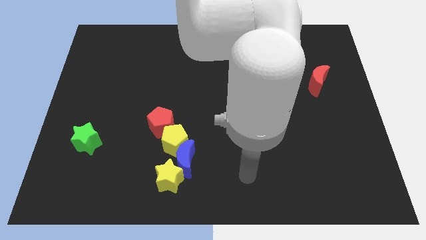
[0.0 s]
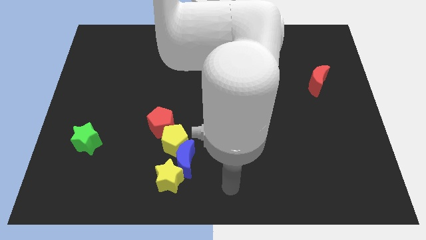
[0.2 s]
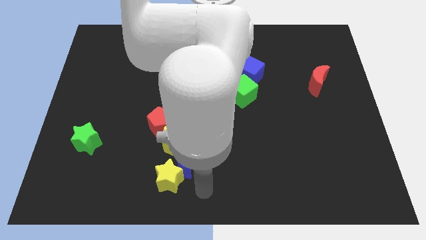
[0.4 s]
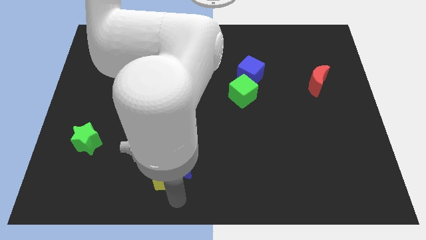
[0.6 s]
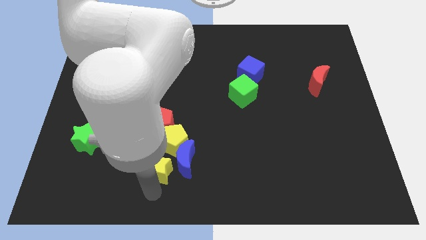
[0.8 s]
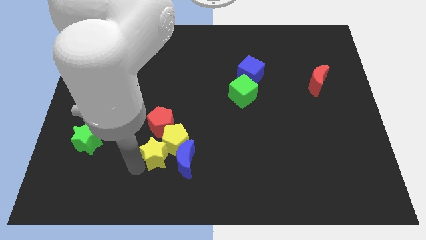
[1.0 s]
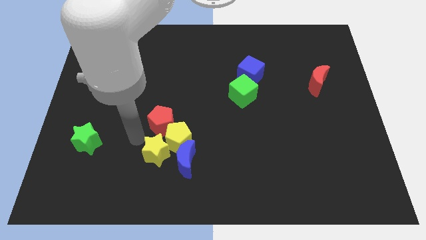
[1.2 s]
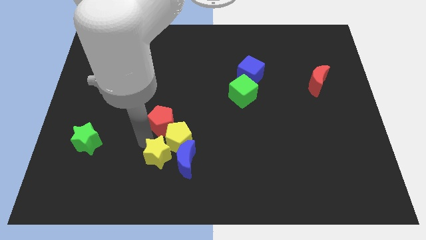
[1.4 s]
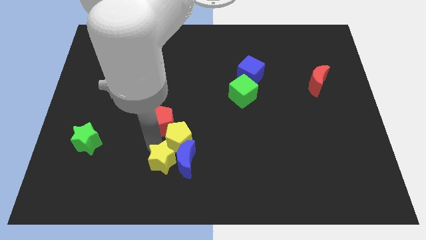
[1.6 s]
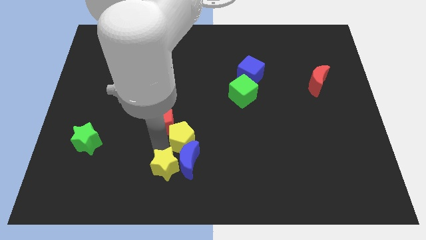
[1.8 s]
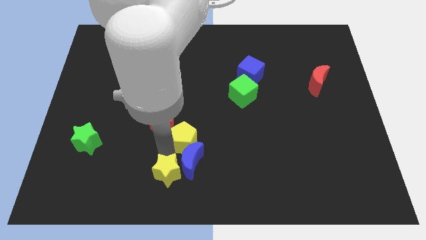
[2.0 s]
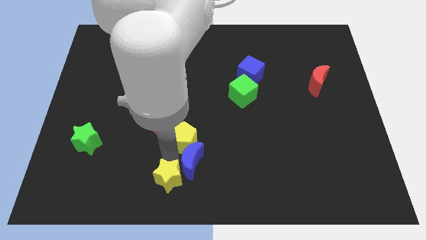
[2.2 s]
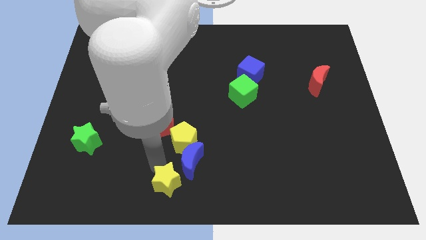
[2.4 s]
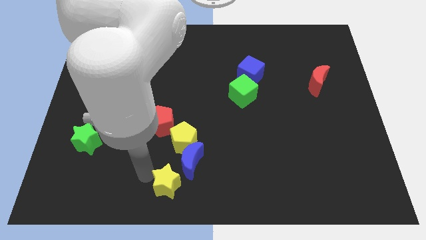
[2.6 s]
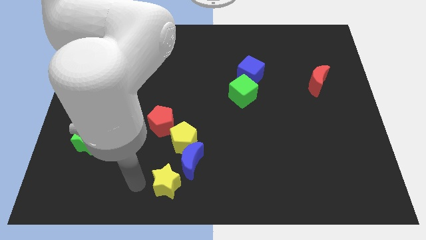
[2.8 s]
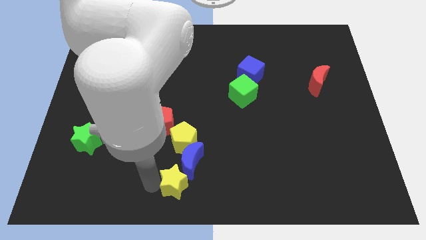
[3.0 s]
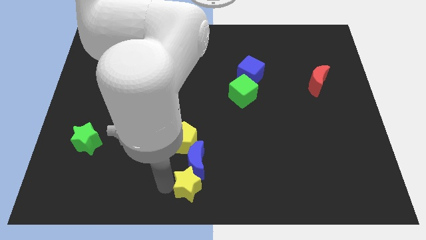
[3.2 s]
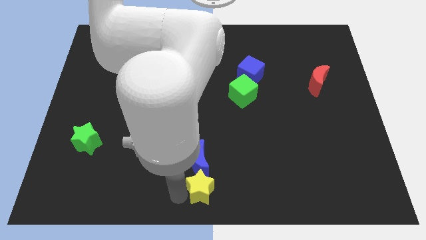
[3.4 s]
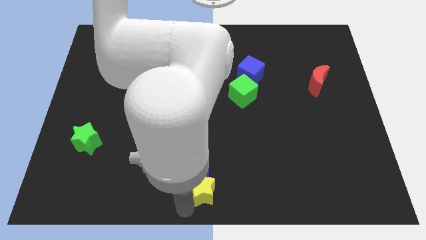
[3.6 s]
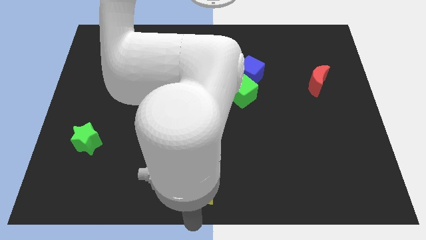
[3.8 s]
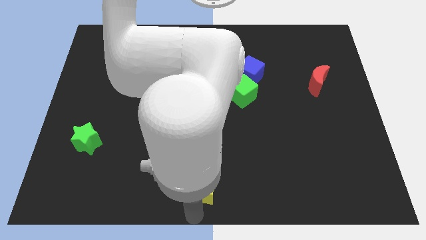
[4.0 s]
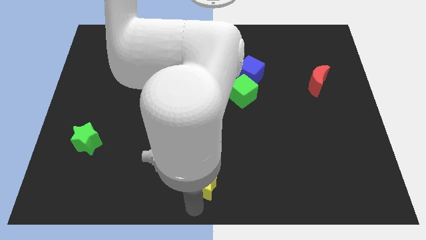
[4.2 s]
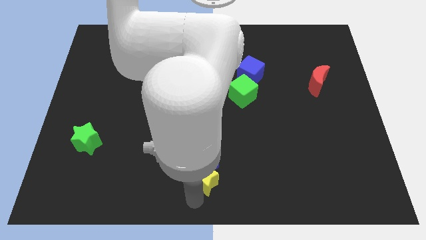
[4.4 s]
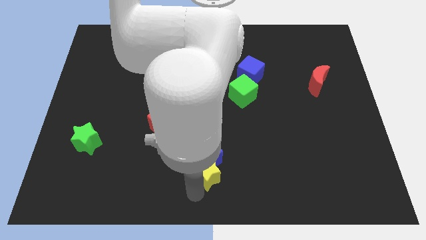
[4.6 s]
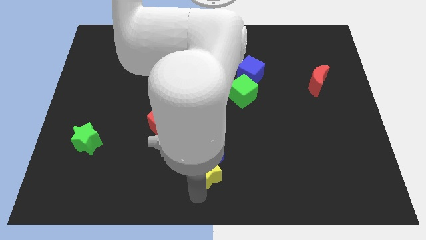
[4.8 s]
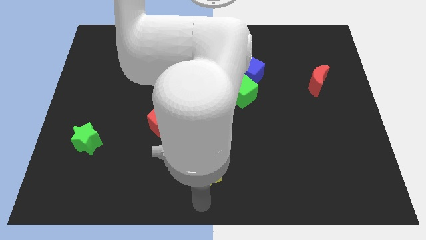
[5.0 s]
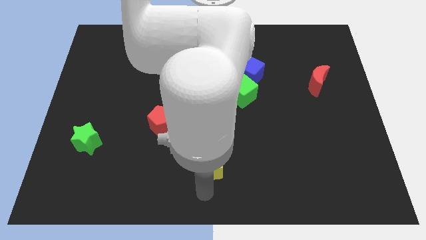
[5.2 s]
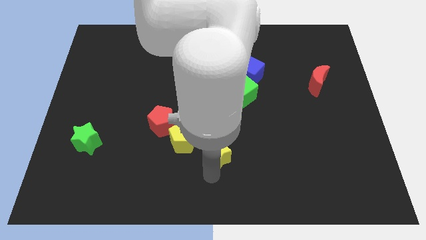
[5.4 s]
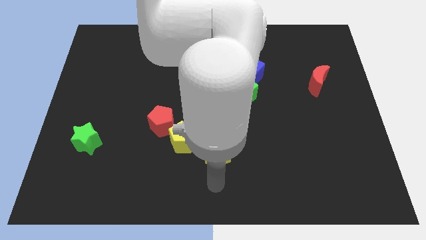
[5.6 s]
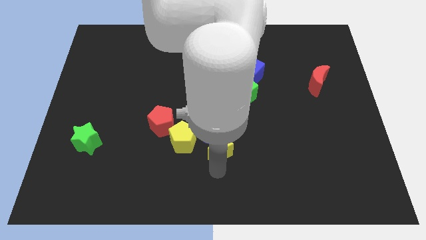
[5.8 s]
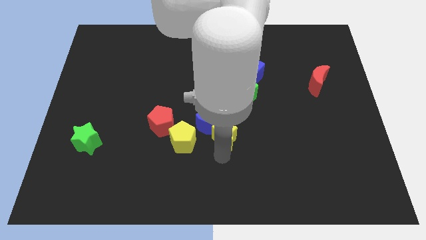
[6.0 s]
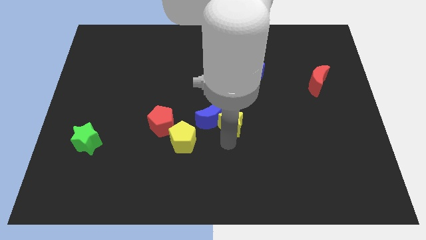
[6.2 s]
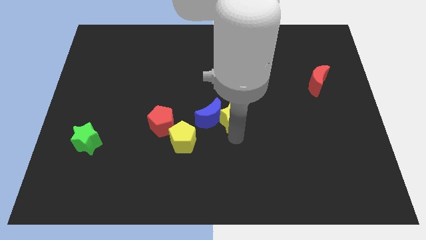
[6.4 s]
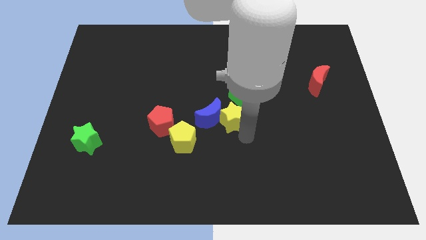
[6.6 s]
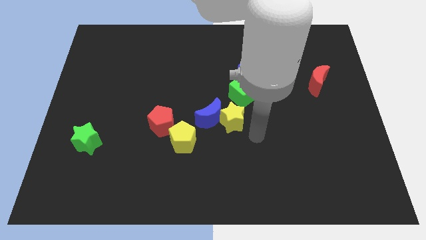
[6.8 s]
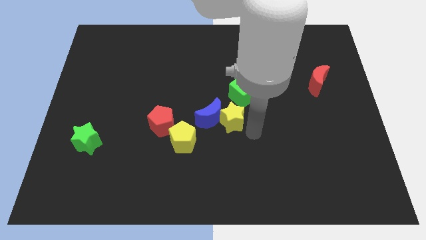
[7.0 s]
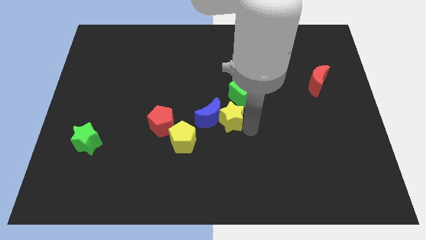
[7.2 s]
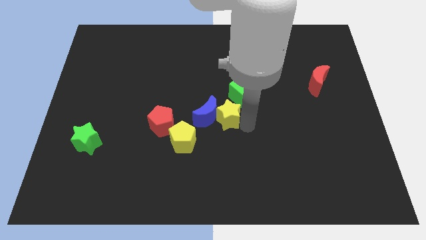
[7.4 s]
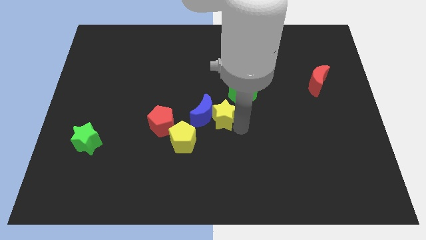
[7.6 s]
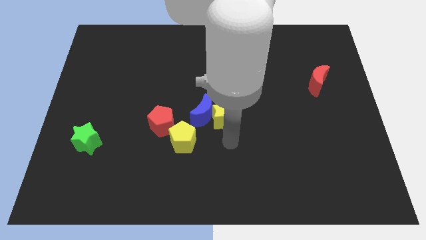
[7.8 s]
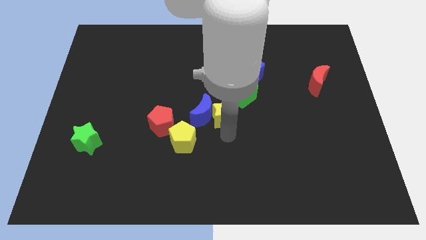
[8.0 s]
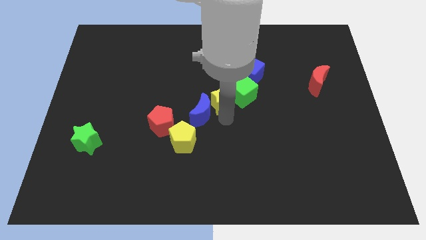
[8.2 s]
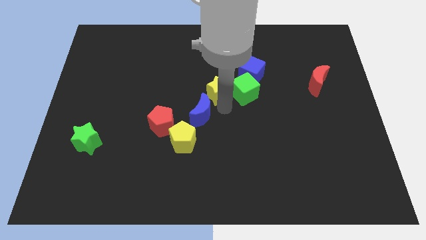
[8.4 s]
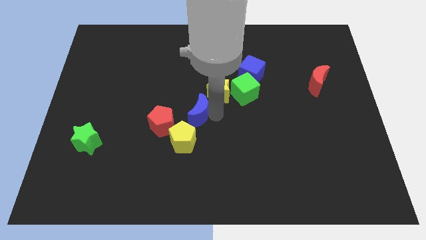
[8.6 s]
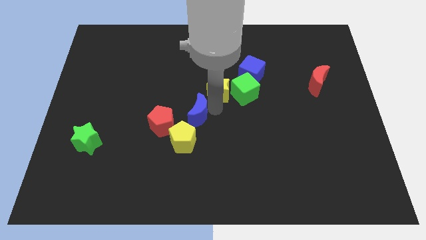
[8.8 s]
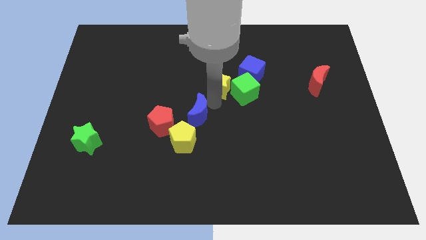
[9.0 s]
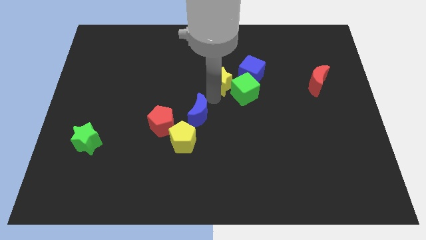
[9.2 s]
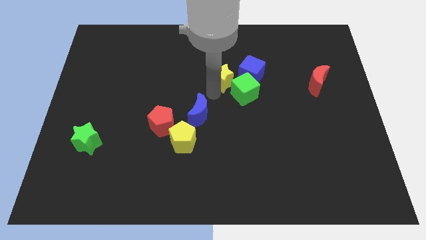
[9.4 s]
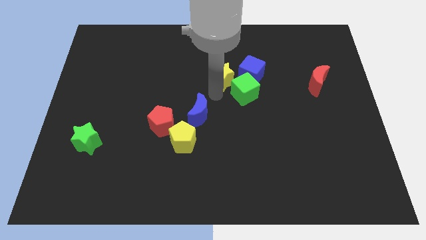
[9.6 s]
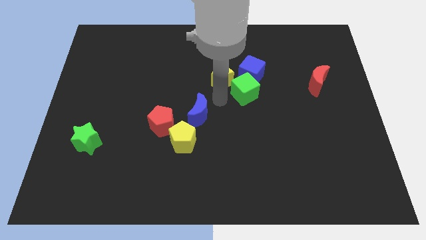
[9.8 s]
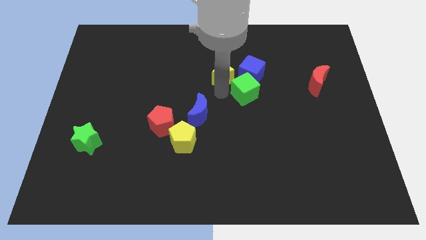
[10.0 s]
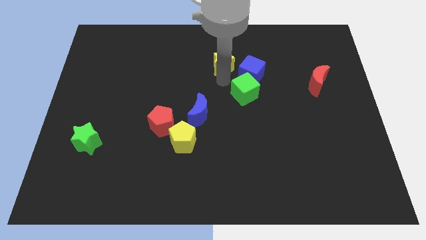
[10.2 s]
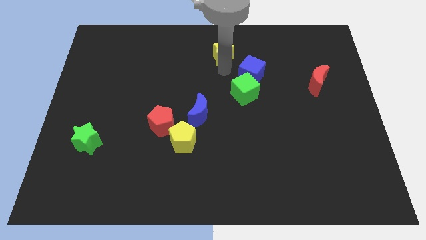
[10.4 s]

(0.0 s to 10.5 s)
move the yellow star to the top

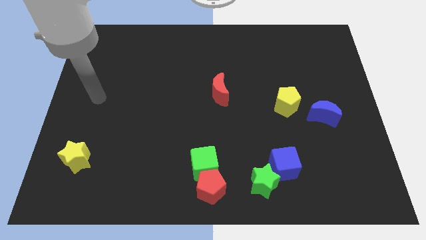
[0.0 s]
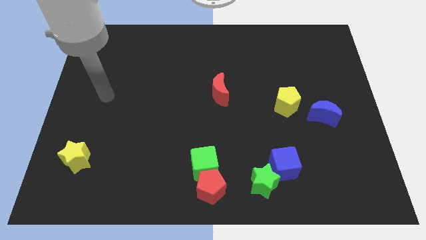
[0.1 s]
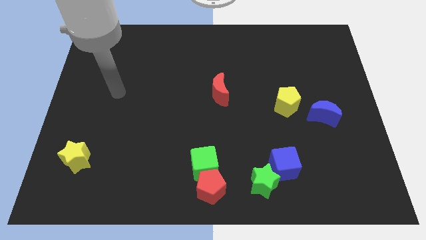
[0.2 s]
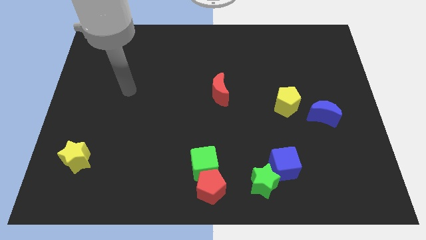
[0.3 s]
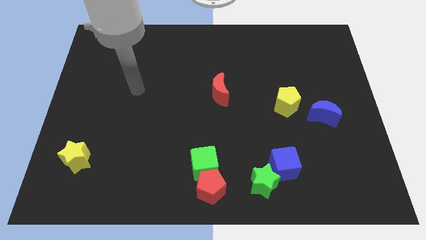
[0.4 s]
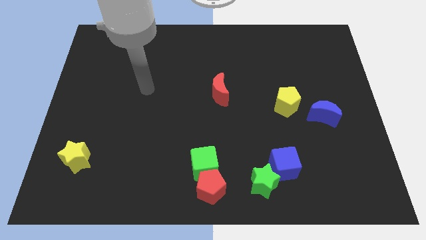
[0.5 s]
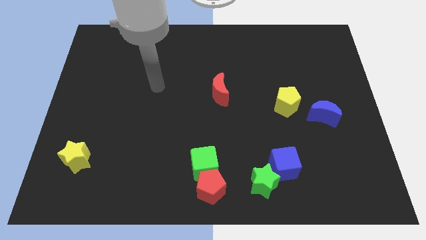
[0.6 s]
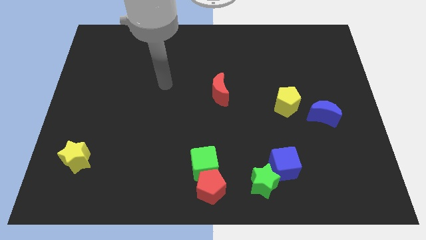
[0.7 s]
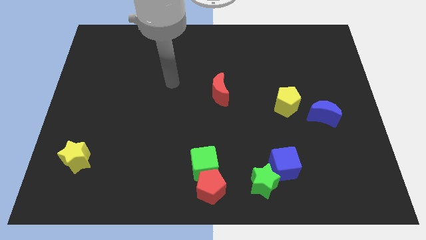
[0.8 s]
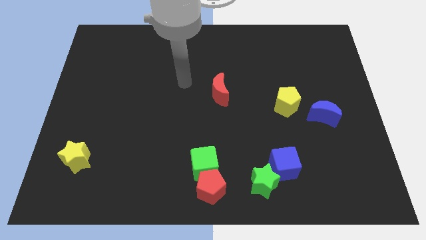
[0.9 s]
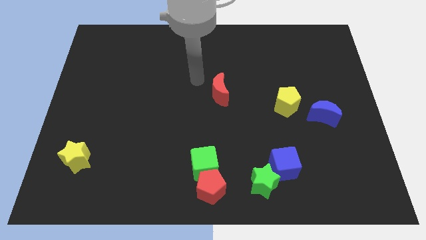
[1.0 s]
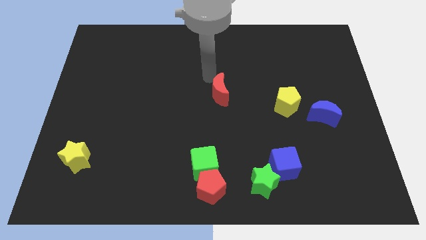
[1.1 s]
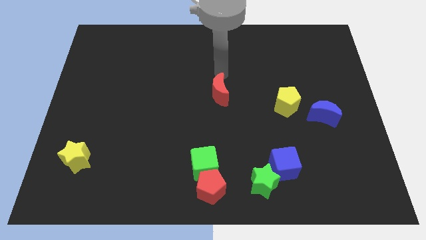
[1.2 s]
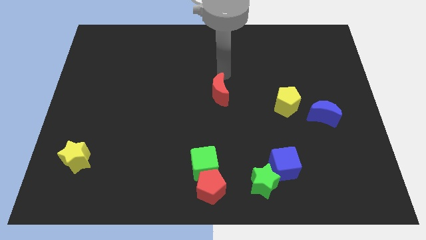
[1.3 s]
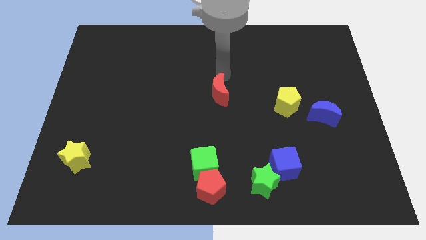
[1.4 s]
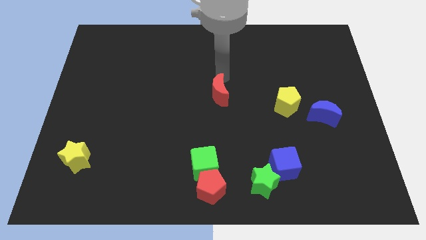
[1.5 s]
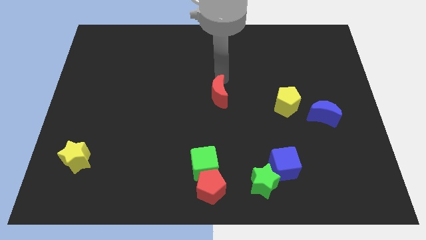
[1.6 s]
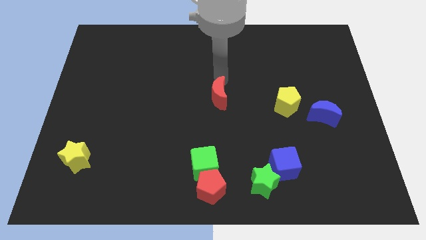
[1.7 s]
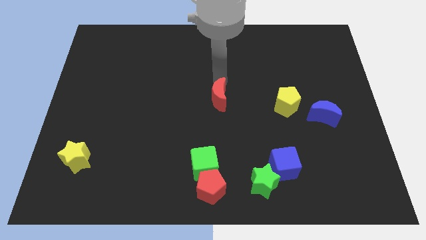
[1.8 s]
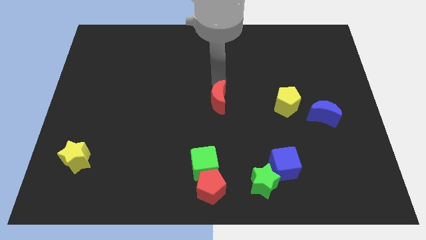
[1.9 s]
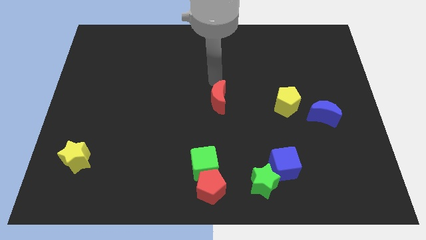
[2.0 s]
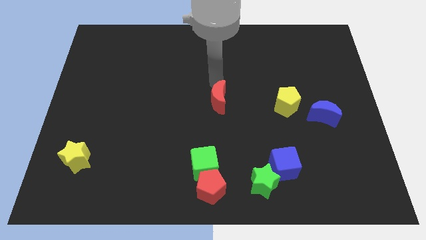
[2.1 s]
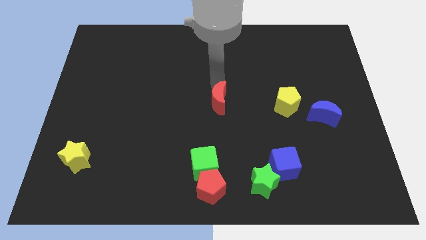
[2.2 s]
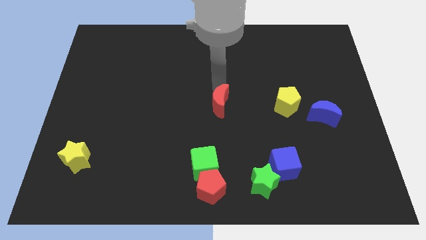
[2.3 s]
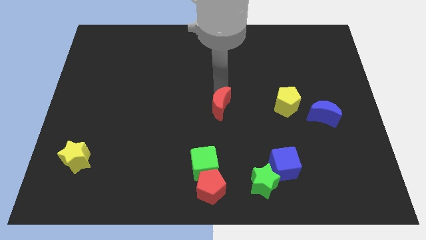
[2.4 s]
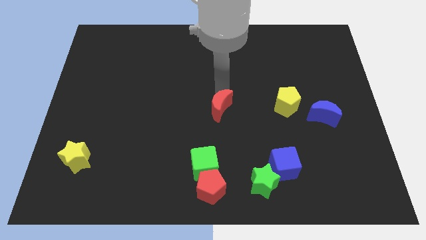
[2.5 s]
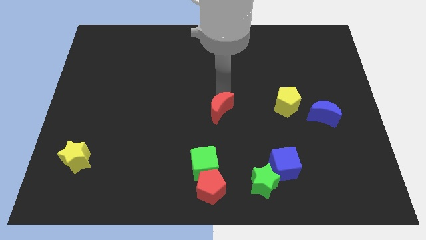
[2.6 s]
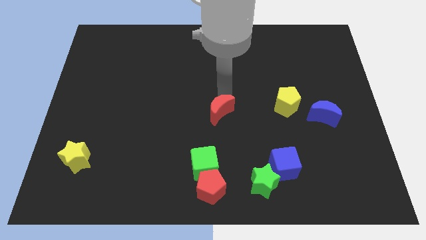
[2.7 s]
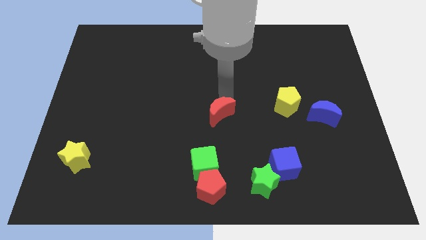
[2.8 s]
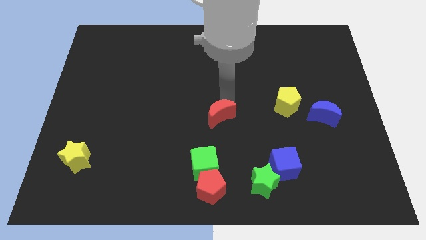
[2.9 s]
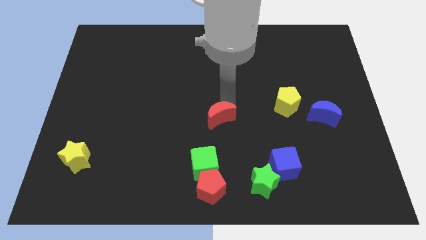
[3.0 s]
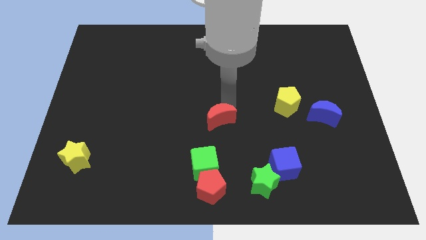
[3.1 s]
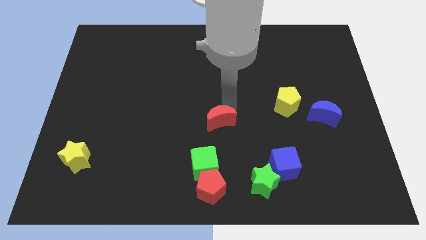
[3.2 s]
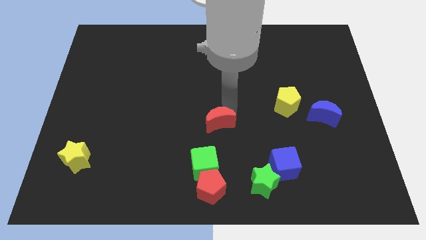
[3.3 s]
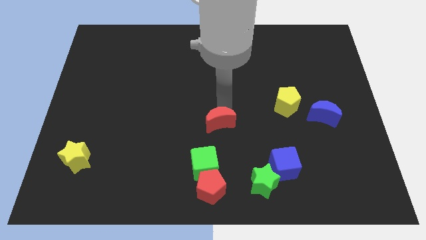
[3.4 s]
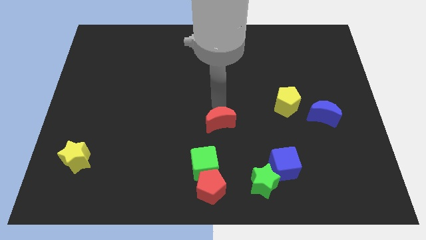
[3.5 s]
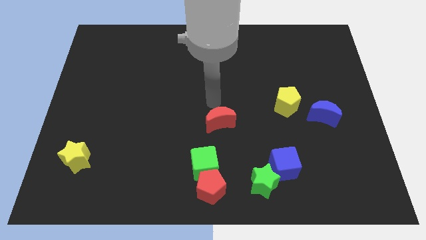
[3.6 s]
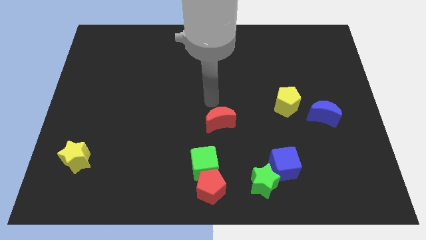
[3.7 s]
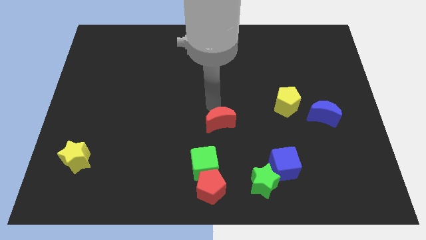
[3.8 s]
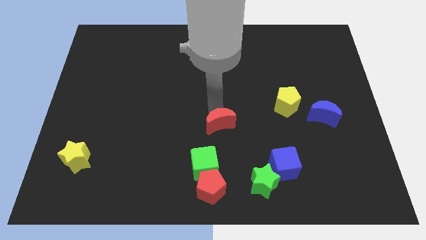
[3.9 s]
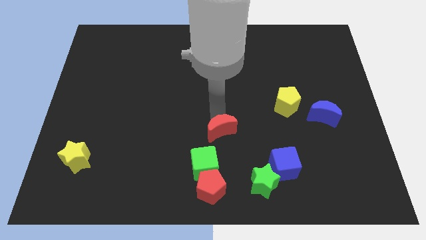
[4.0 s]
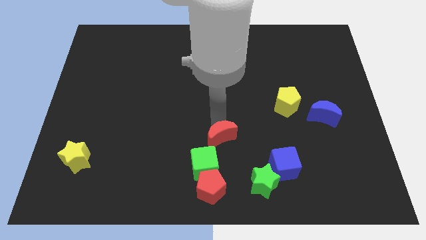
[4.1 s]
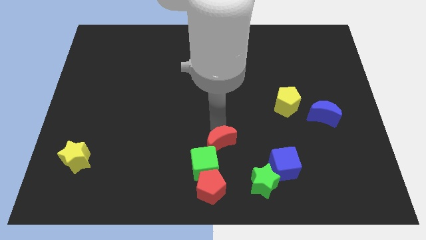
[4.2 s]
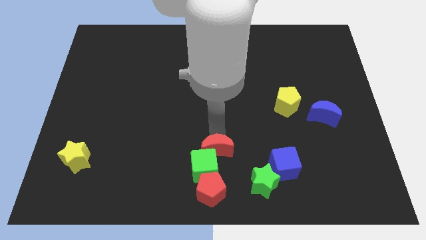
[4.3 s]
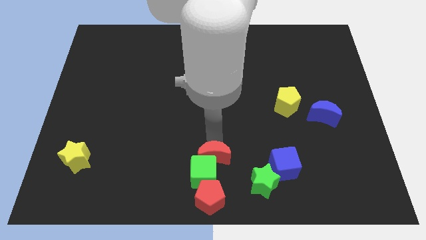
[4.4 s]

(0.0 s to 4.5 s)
move the red moon to the bottom side
